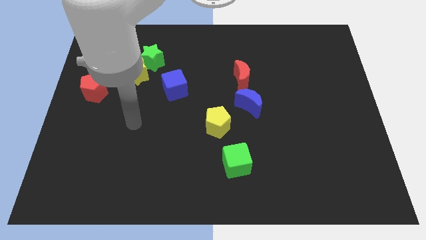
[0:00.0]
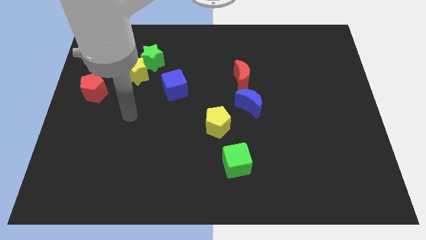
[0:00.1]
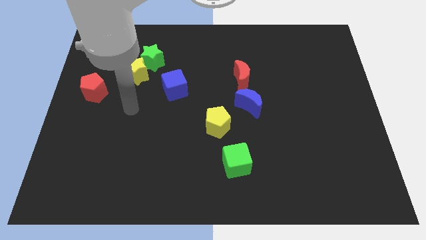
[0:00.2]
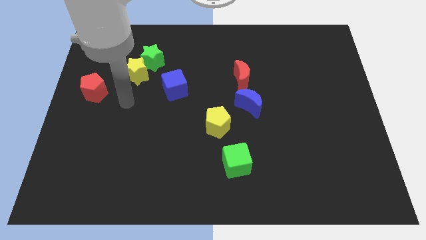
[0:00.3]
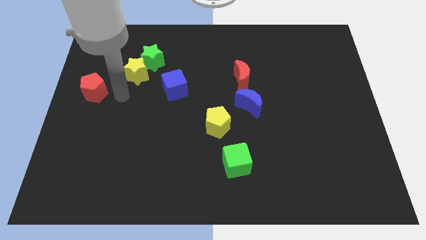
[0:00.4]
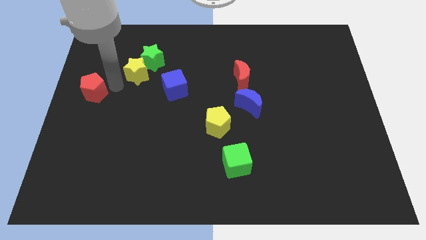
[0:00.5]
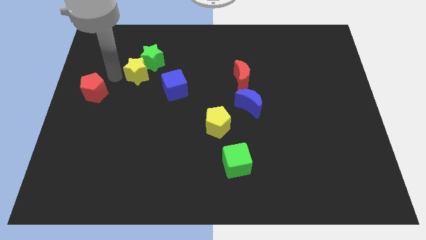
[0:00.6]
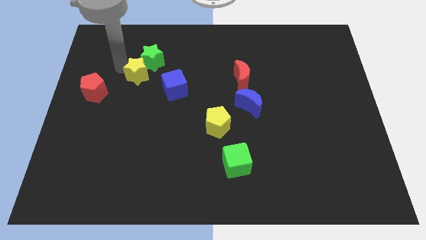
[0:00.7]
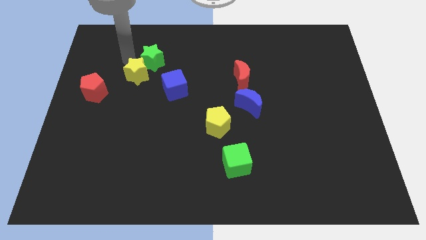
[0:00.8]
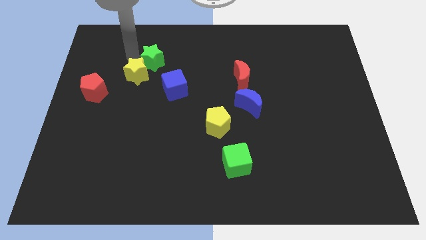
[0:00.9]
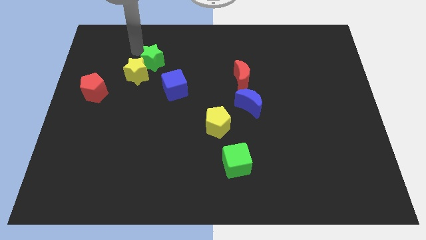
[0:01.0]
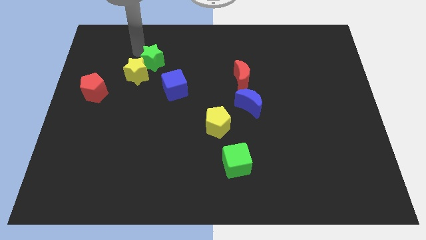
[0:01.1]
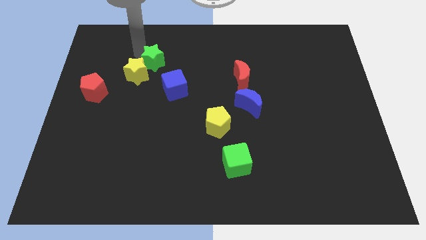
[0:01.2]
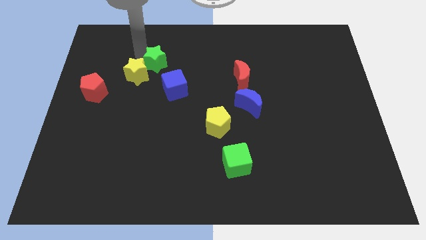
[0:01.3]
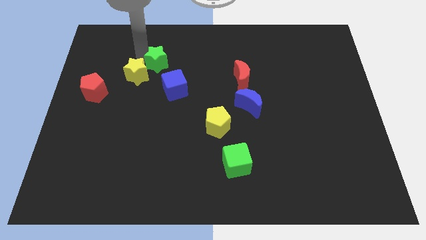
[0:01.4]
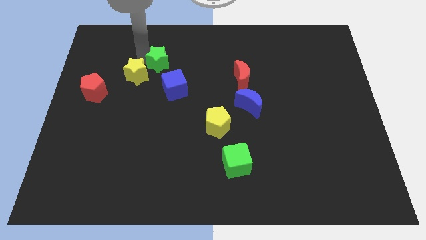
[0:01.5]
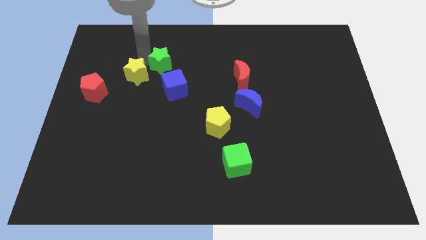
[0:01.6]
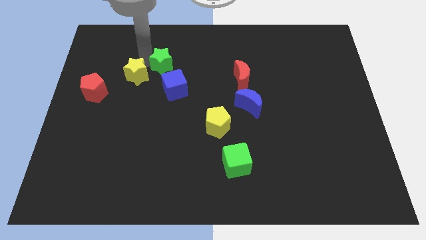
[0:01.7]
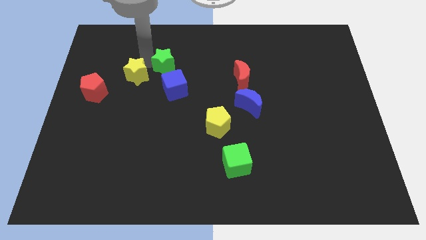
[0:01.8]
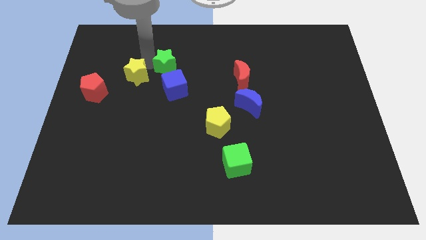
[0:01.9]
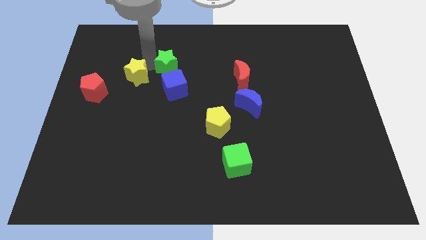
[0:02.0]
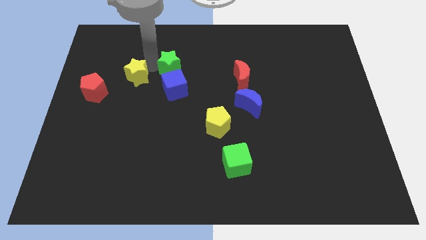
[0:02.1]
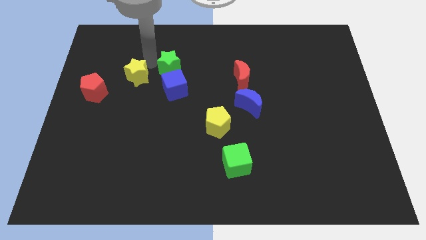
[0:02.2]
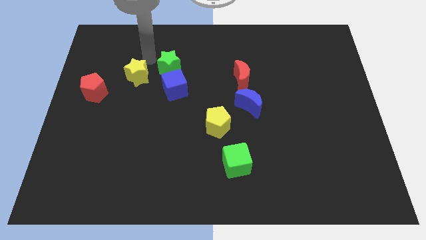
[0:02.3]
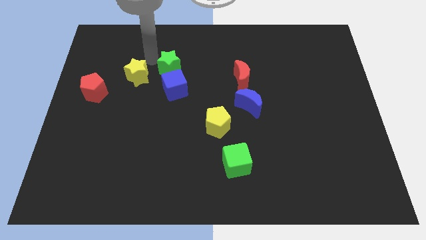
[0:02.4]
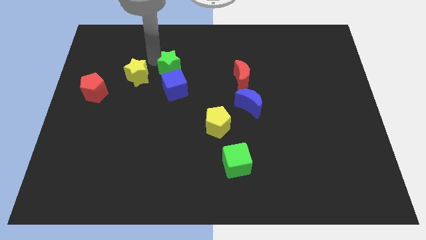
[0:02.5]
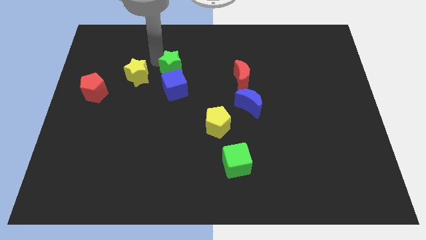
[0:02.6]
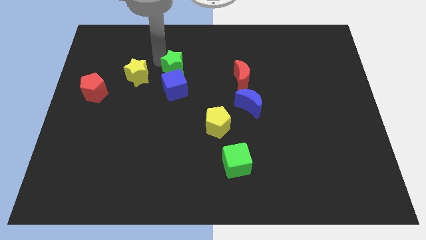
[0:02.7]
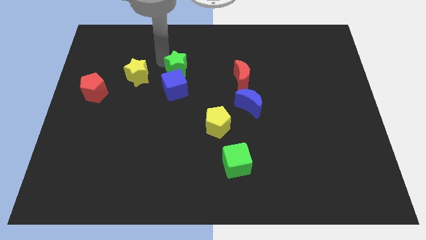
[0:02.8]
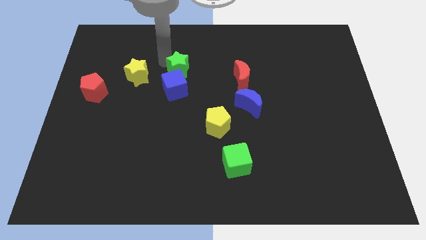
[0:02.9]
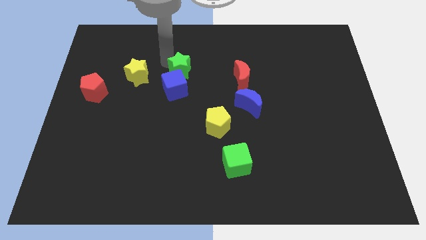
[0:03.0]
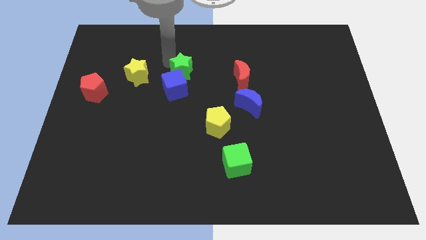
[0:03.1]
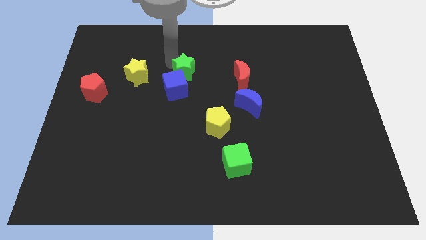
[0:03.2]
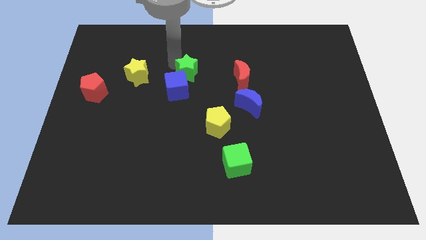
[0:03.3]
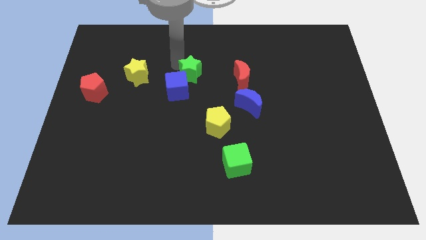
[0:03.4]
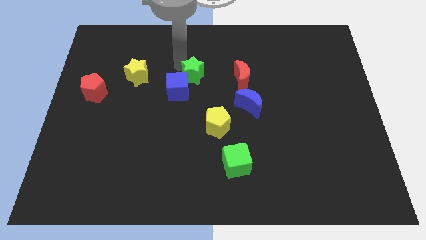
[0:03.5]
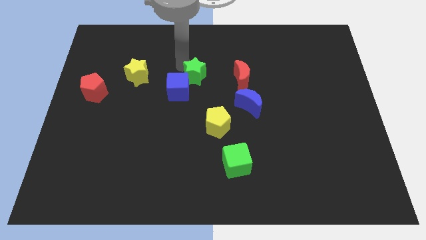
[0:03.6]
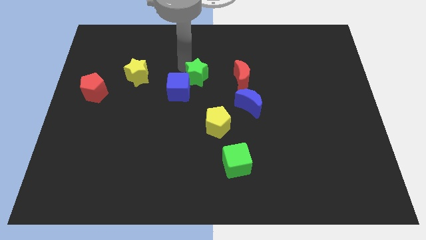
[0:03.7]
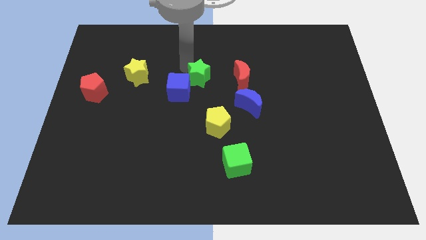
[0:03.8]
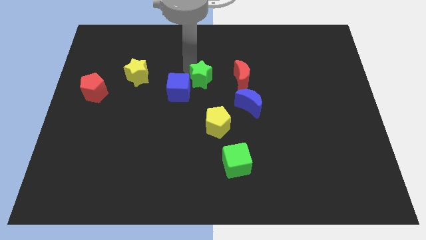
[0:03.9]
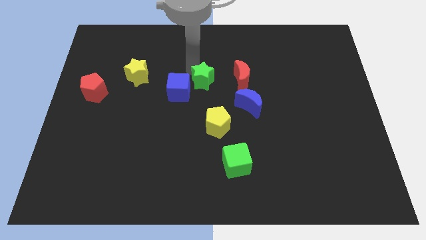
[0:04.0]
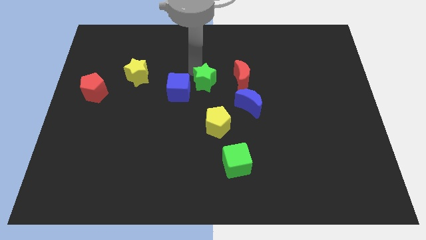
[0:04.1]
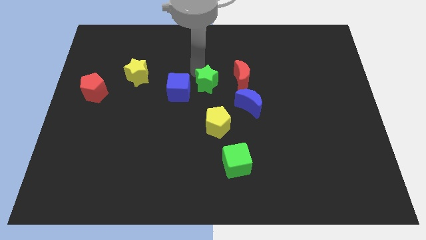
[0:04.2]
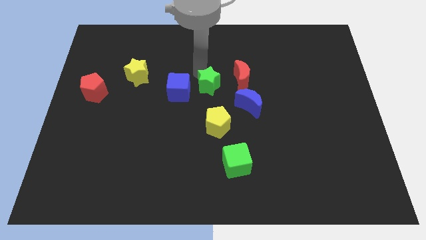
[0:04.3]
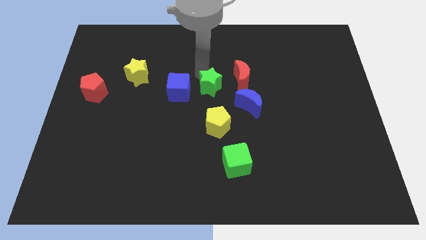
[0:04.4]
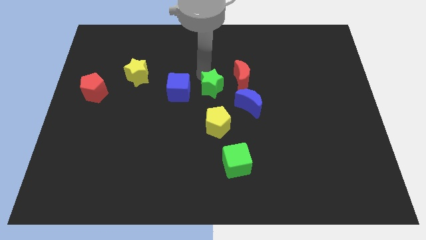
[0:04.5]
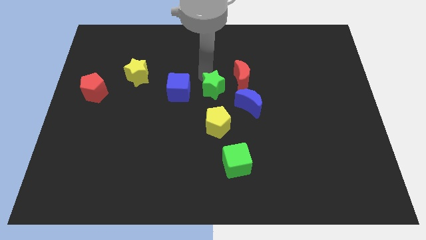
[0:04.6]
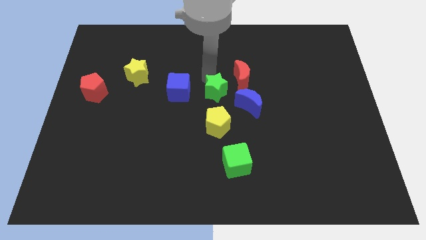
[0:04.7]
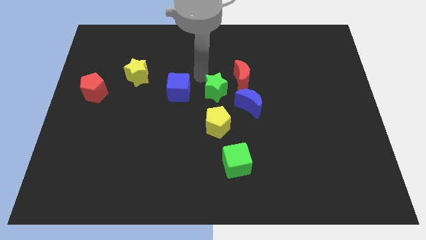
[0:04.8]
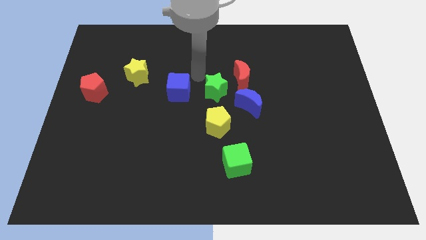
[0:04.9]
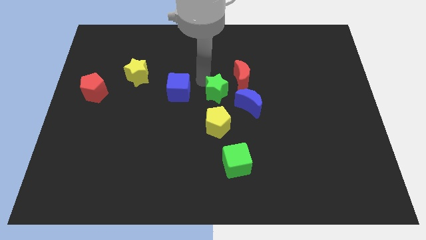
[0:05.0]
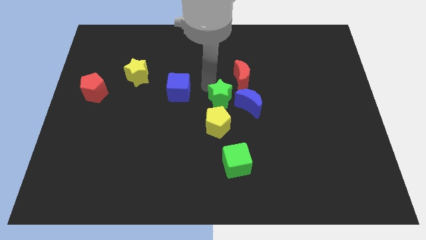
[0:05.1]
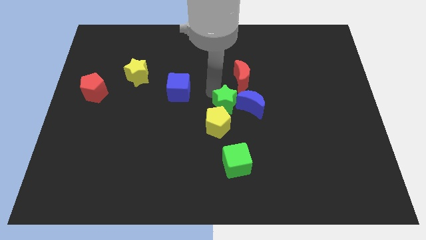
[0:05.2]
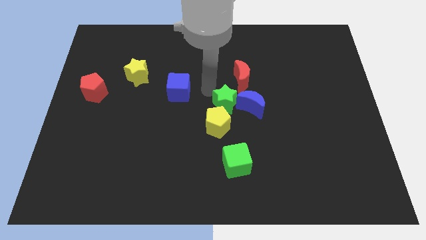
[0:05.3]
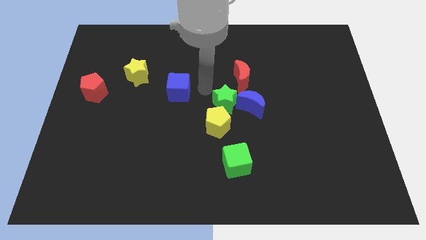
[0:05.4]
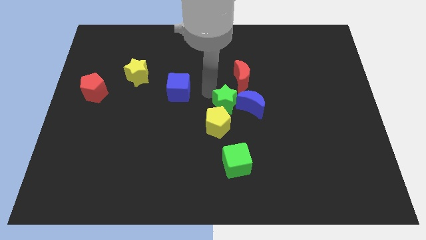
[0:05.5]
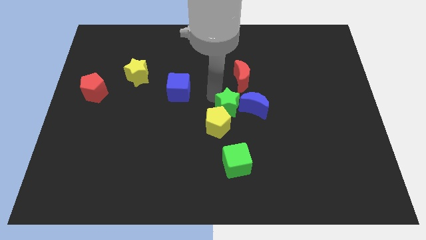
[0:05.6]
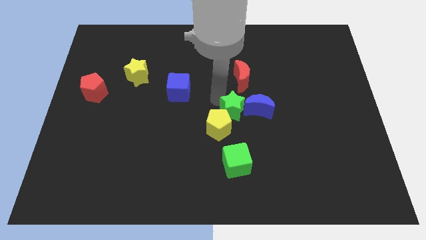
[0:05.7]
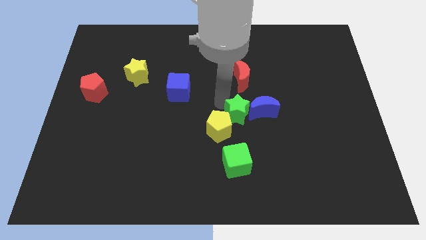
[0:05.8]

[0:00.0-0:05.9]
push the green star just right of the yellow pentagon

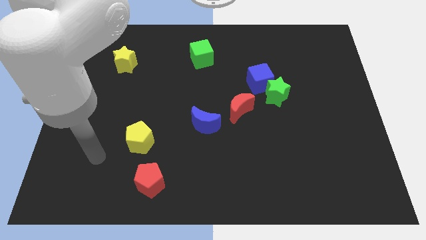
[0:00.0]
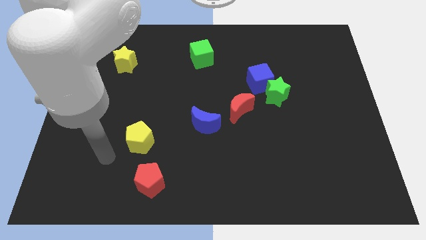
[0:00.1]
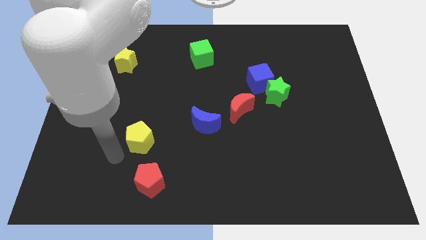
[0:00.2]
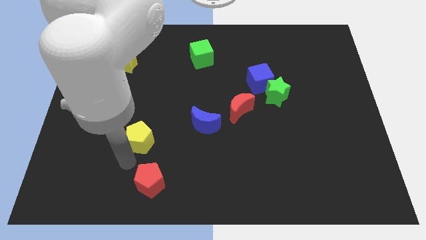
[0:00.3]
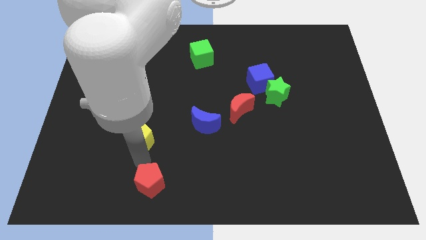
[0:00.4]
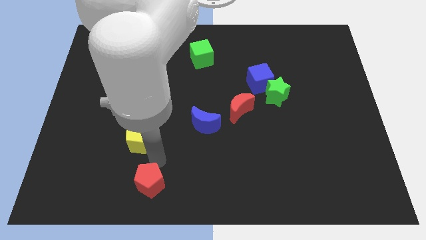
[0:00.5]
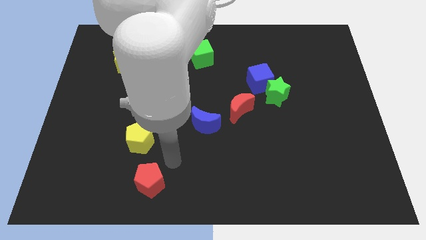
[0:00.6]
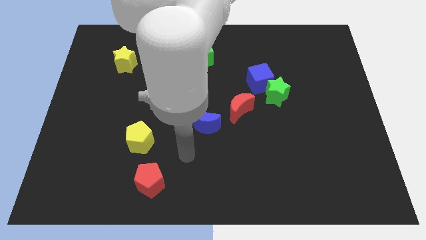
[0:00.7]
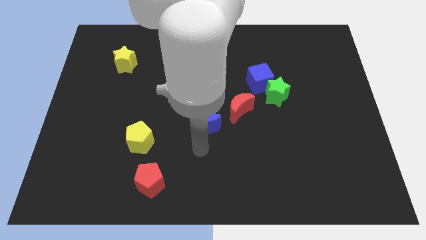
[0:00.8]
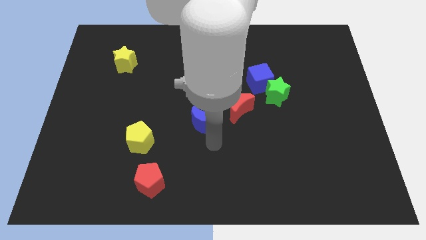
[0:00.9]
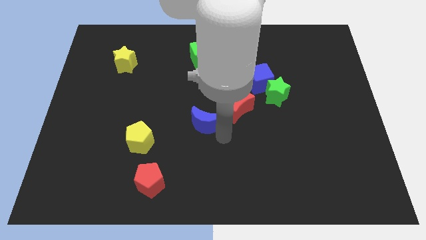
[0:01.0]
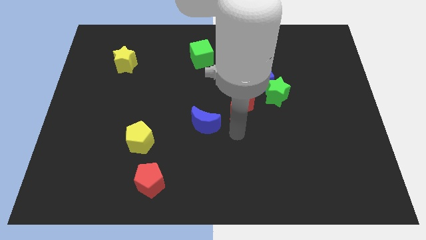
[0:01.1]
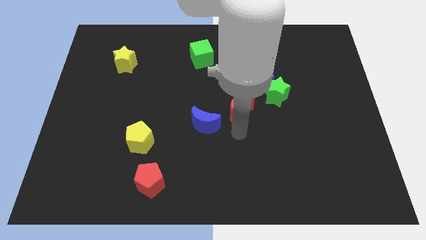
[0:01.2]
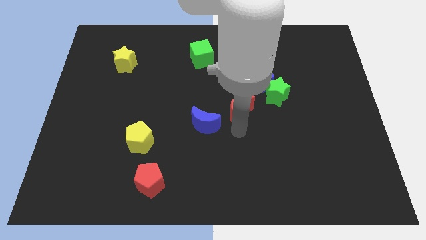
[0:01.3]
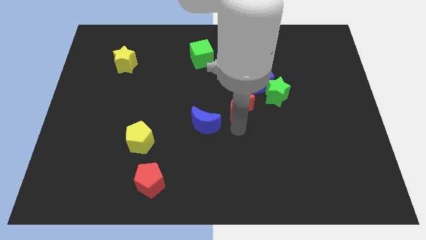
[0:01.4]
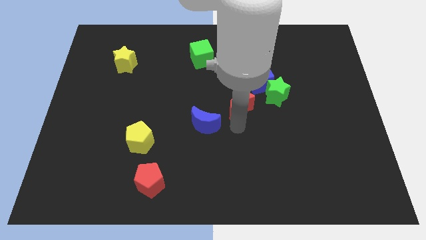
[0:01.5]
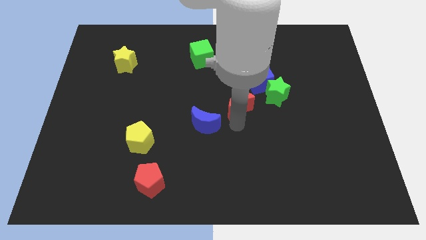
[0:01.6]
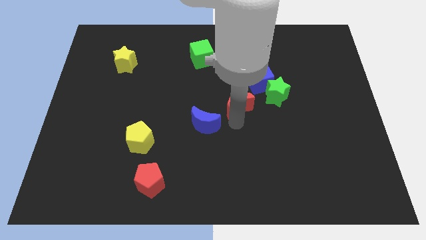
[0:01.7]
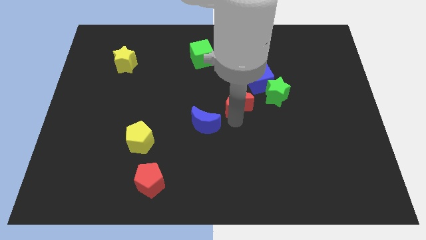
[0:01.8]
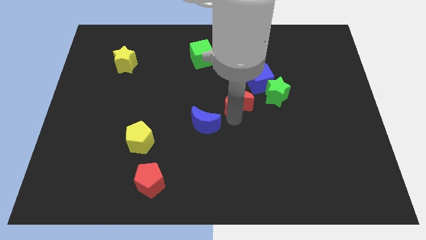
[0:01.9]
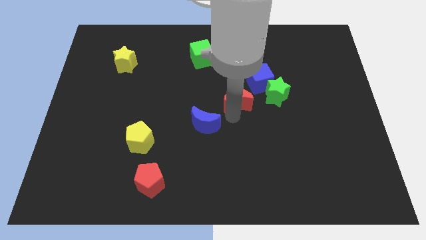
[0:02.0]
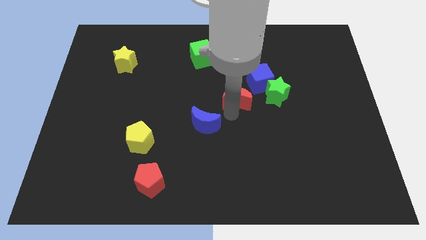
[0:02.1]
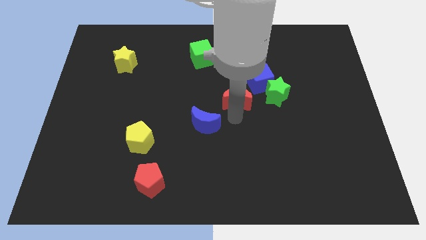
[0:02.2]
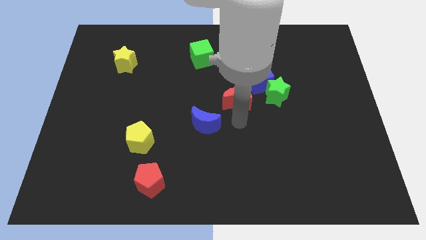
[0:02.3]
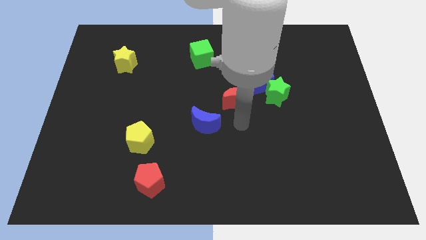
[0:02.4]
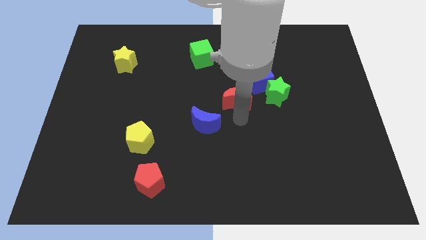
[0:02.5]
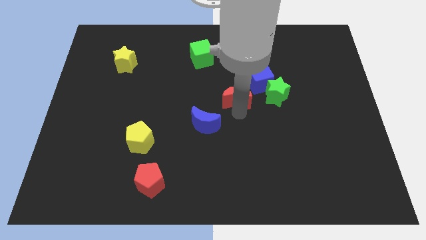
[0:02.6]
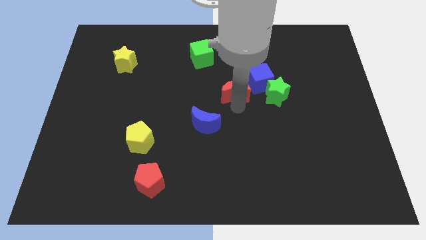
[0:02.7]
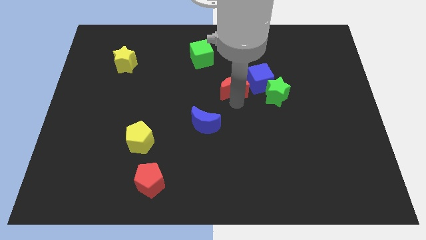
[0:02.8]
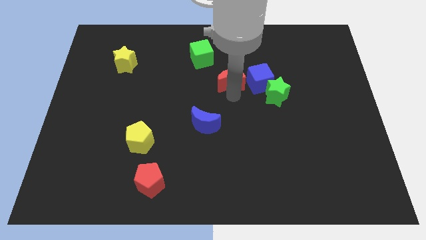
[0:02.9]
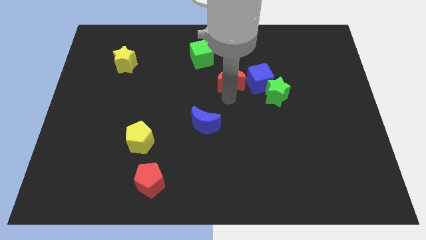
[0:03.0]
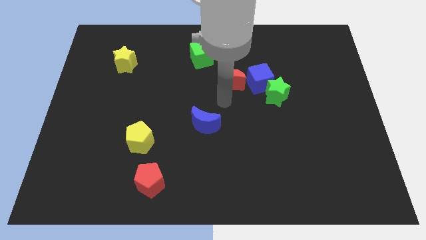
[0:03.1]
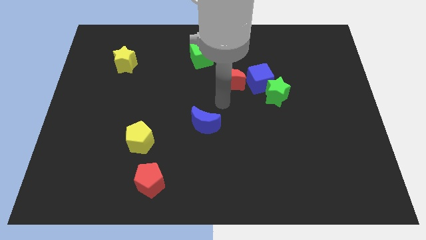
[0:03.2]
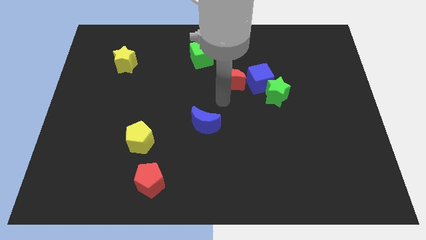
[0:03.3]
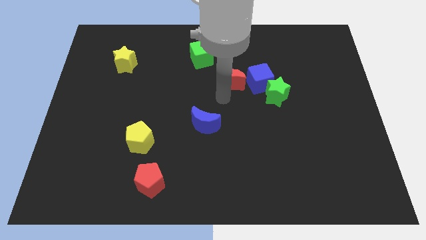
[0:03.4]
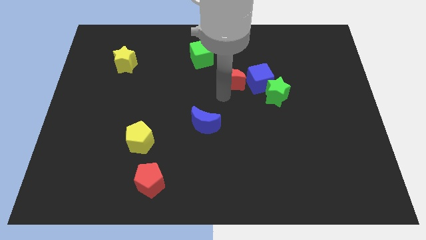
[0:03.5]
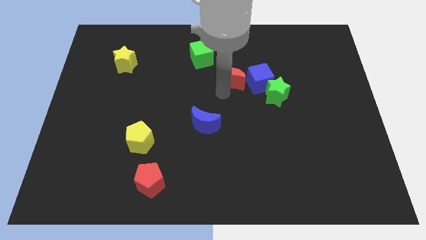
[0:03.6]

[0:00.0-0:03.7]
move the red moon diagonally up and to the left of the blue cube
